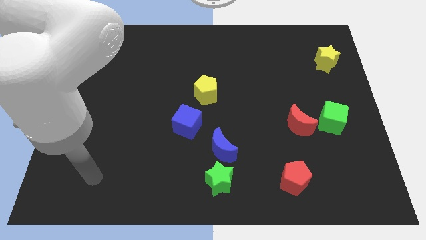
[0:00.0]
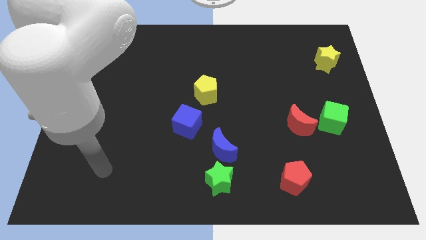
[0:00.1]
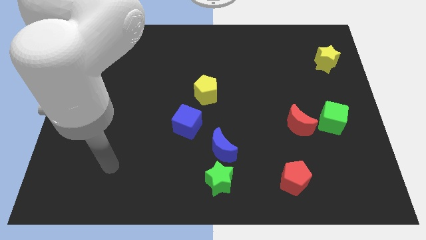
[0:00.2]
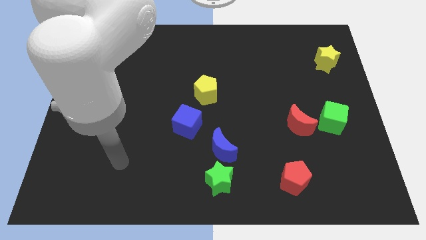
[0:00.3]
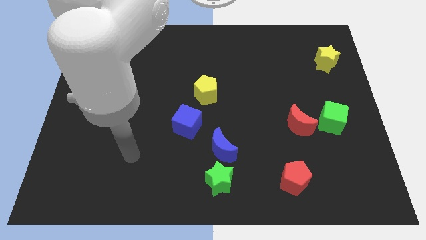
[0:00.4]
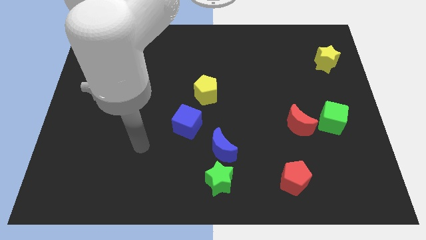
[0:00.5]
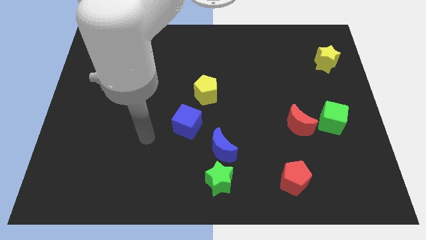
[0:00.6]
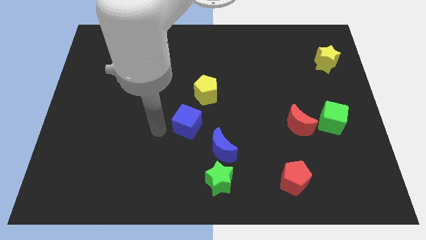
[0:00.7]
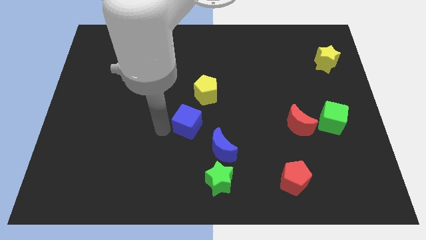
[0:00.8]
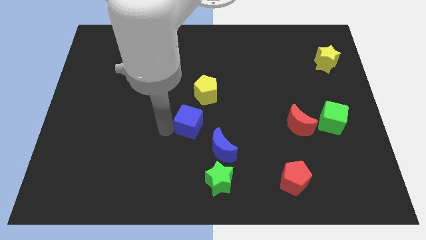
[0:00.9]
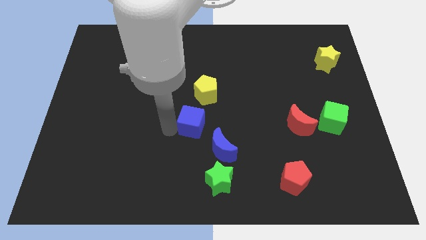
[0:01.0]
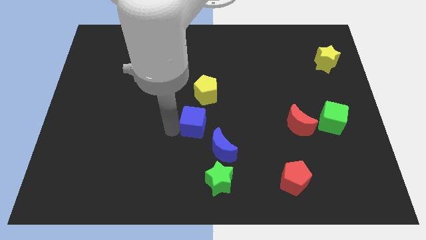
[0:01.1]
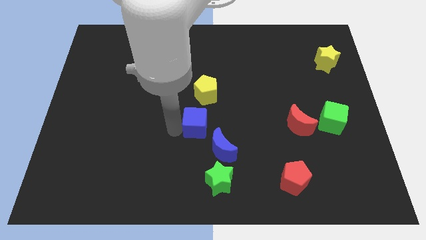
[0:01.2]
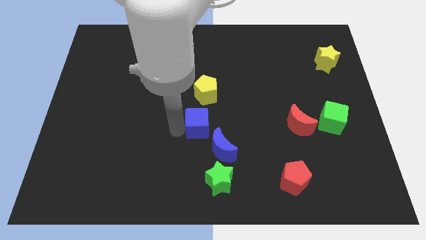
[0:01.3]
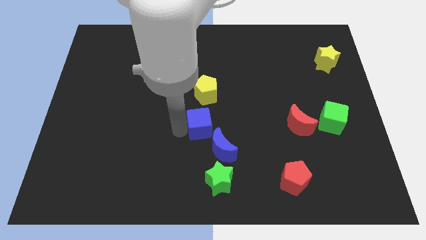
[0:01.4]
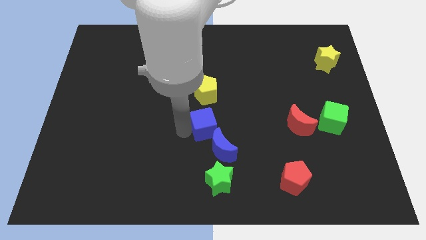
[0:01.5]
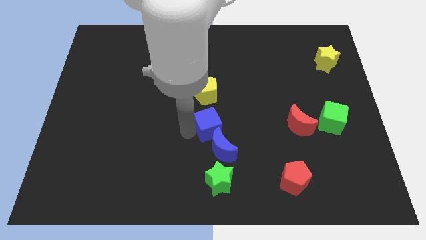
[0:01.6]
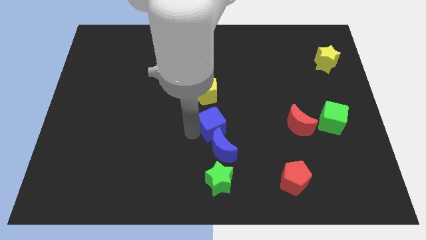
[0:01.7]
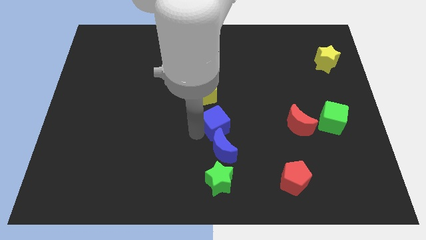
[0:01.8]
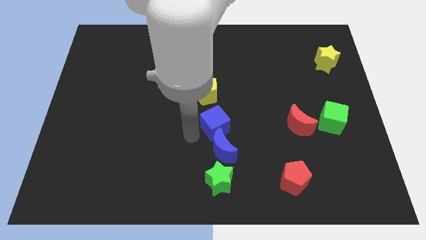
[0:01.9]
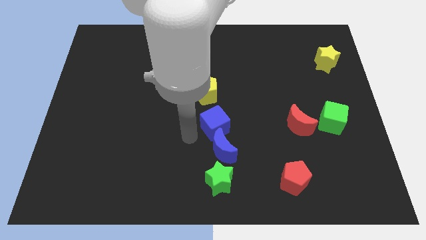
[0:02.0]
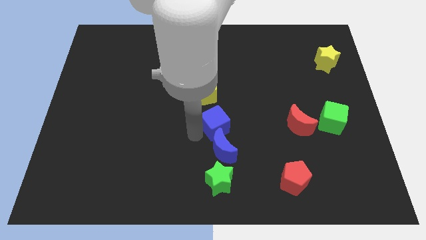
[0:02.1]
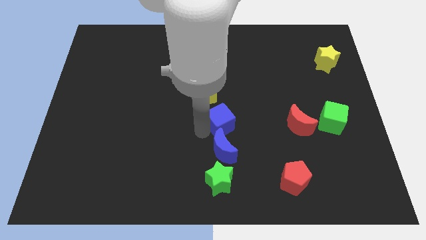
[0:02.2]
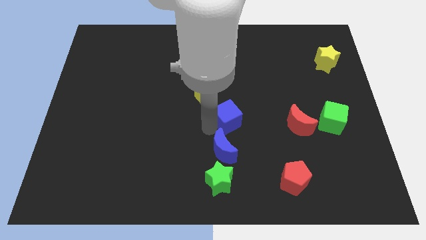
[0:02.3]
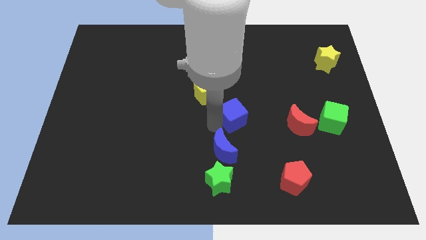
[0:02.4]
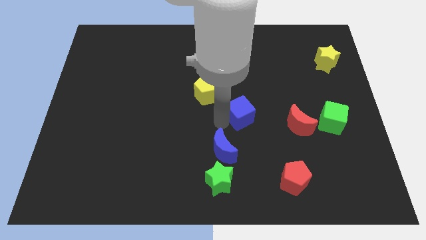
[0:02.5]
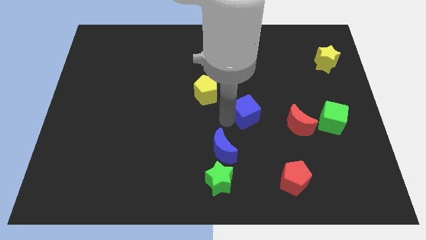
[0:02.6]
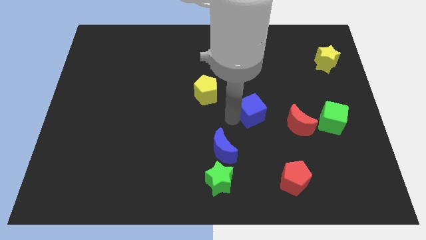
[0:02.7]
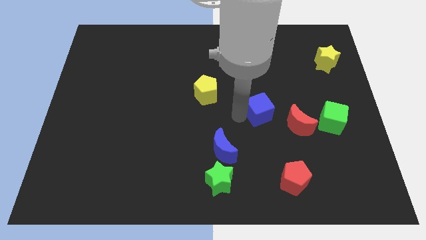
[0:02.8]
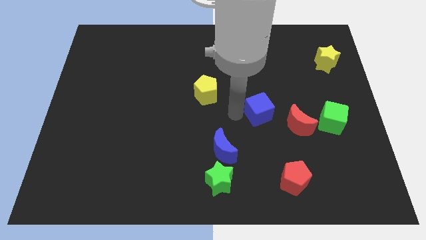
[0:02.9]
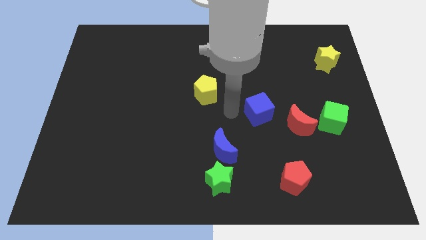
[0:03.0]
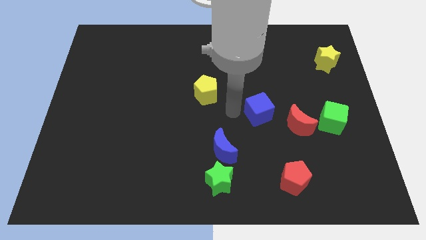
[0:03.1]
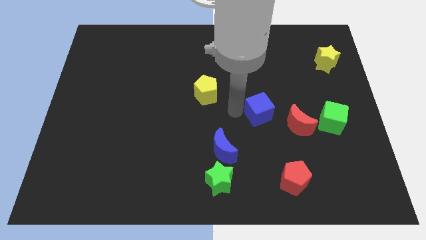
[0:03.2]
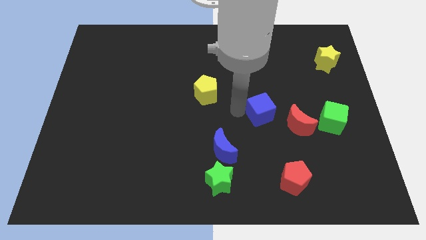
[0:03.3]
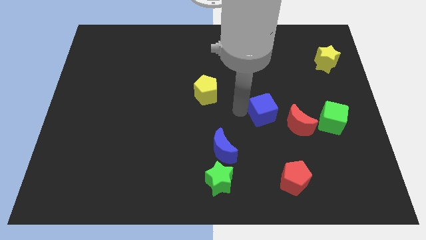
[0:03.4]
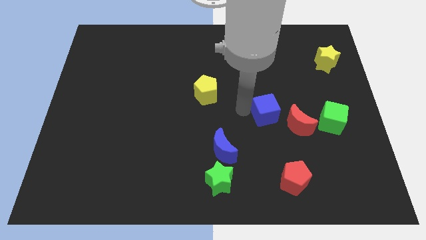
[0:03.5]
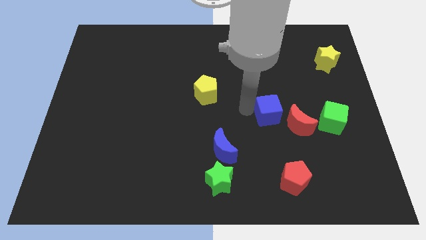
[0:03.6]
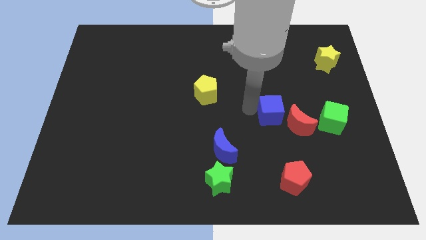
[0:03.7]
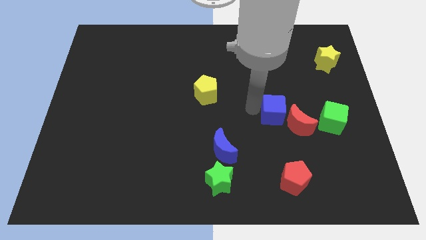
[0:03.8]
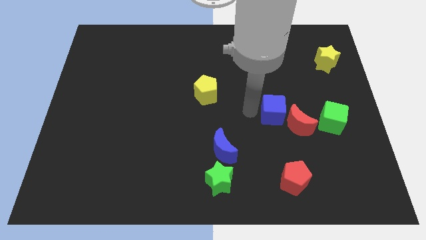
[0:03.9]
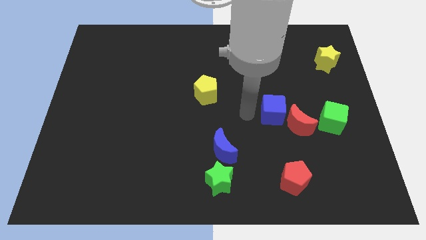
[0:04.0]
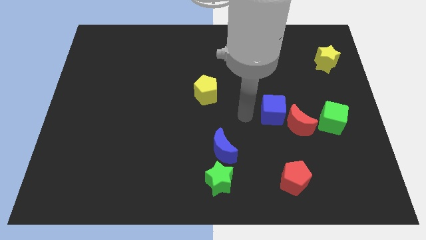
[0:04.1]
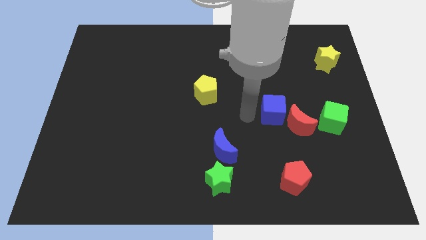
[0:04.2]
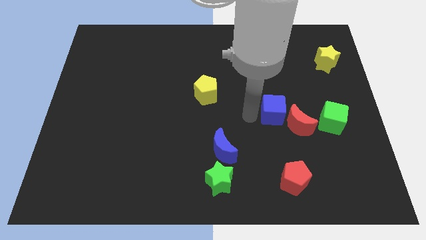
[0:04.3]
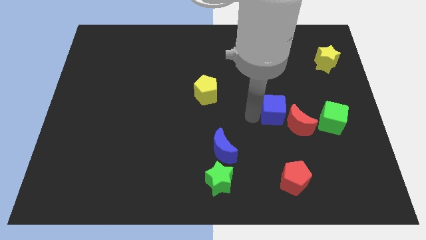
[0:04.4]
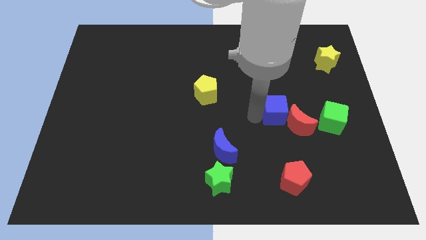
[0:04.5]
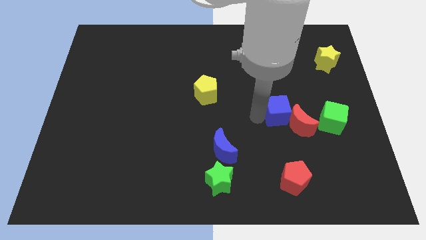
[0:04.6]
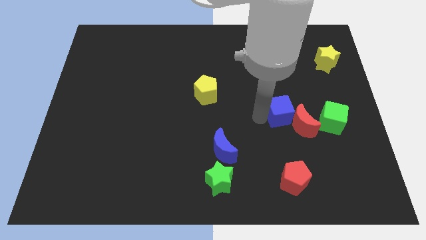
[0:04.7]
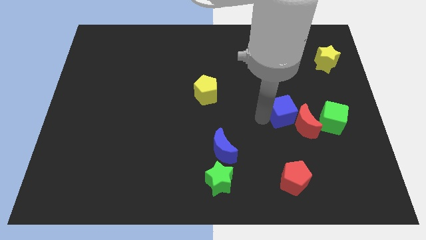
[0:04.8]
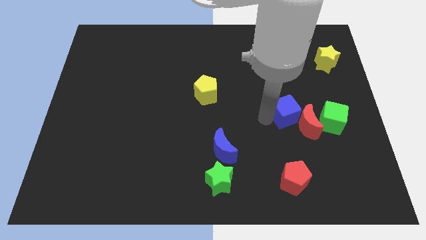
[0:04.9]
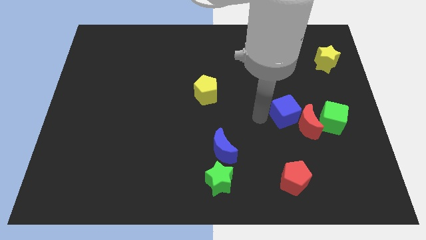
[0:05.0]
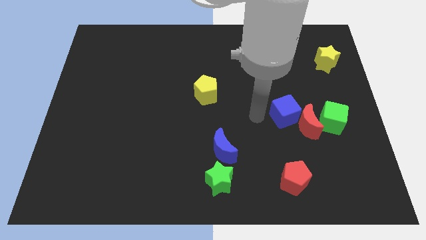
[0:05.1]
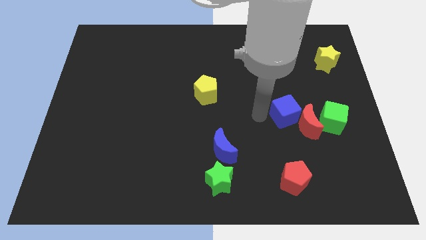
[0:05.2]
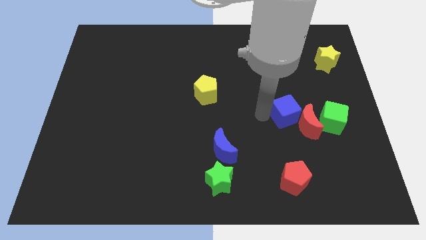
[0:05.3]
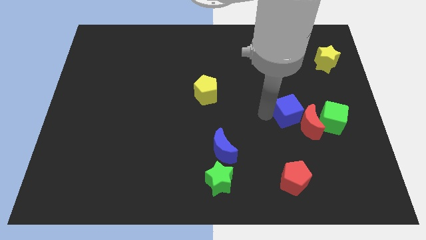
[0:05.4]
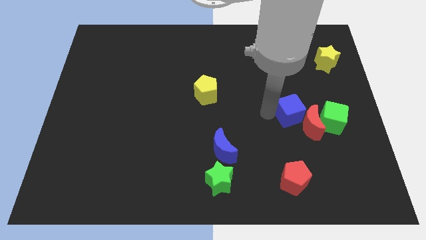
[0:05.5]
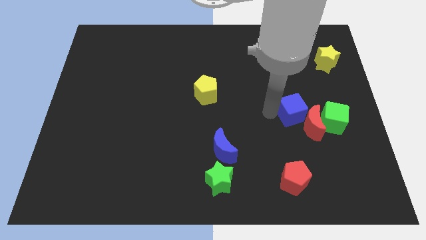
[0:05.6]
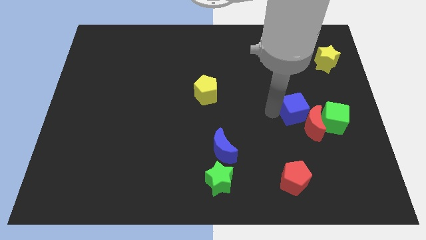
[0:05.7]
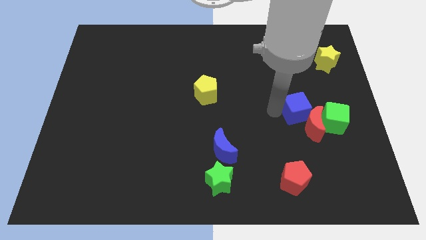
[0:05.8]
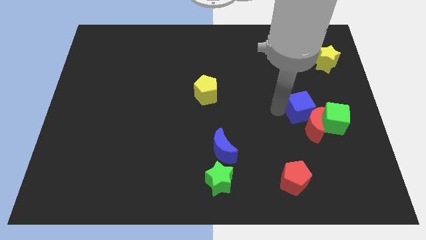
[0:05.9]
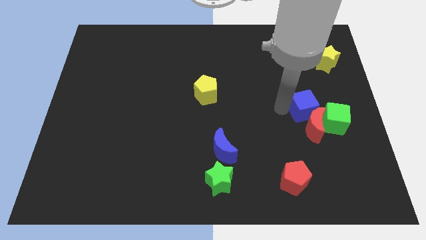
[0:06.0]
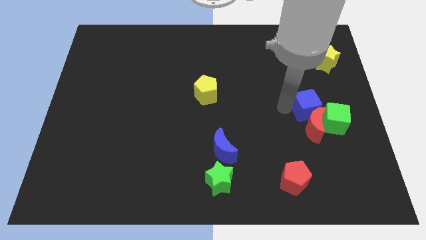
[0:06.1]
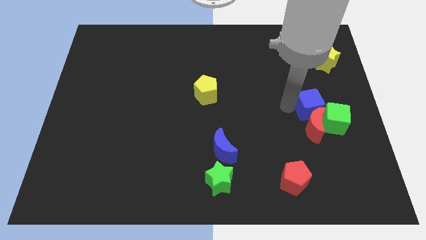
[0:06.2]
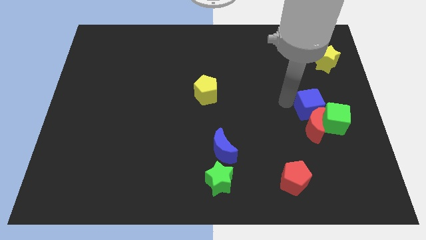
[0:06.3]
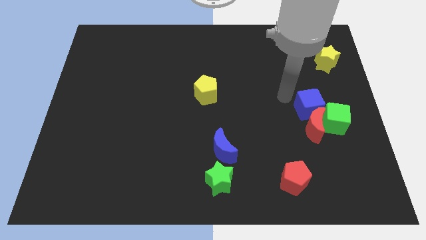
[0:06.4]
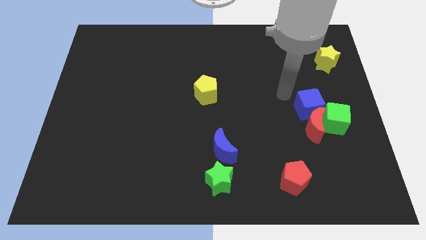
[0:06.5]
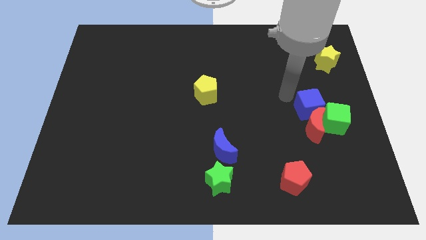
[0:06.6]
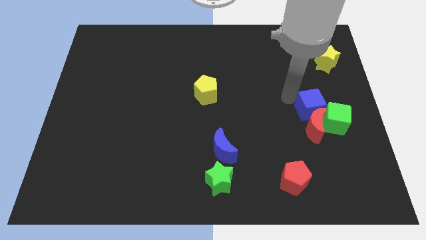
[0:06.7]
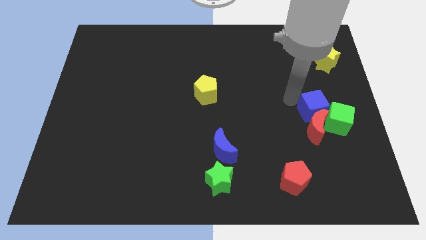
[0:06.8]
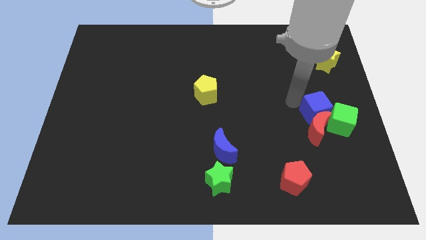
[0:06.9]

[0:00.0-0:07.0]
put the blue cube to the green cube

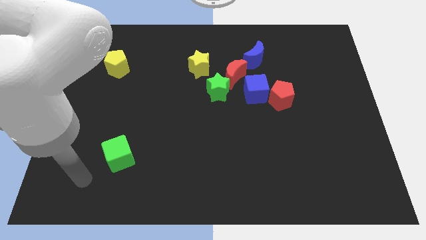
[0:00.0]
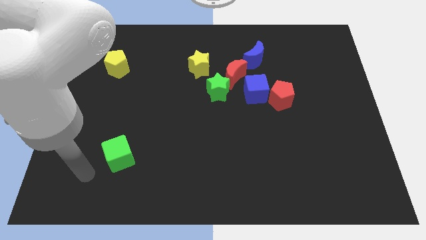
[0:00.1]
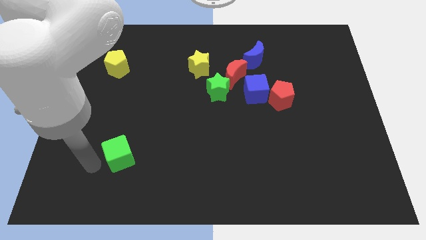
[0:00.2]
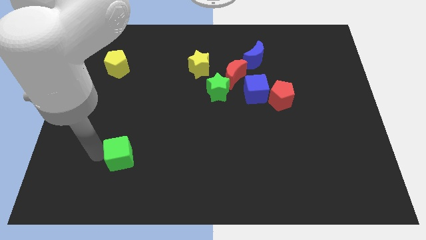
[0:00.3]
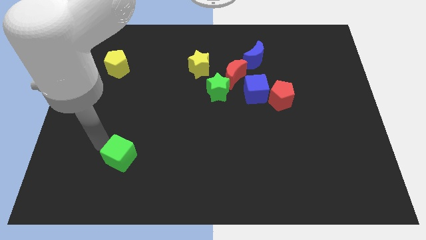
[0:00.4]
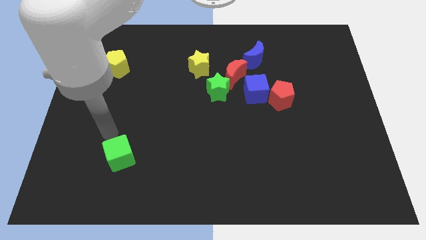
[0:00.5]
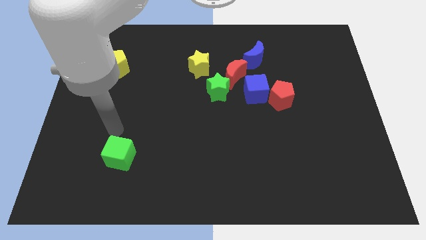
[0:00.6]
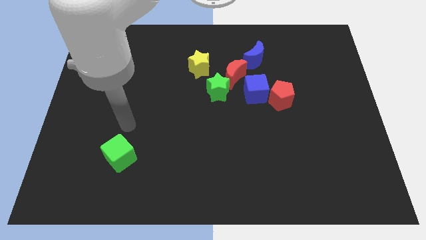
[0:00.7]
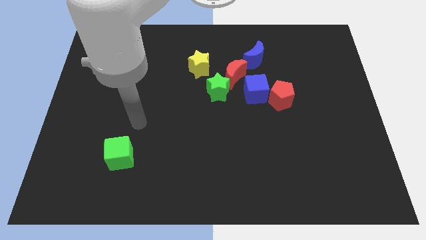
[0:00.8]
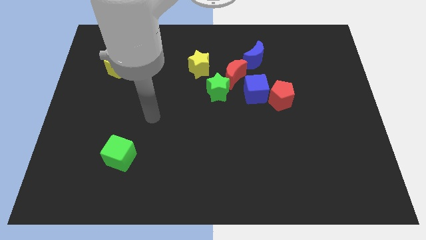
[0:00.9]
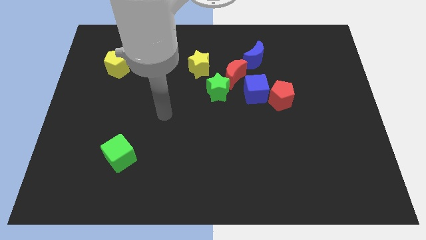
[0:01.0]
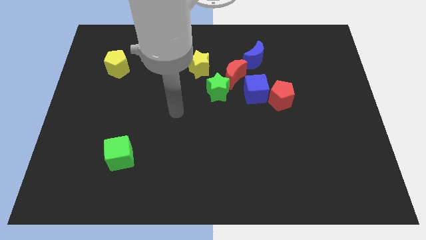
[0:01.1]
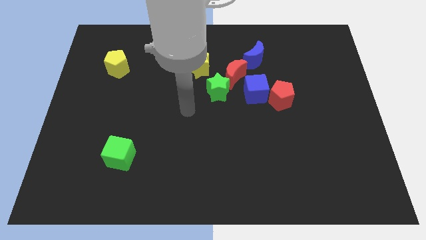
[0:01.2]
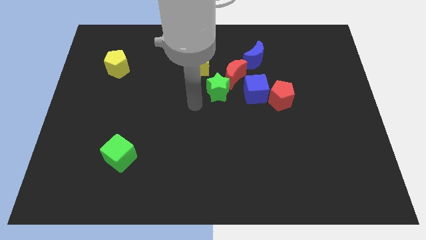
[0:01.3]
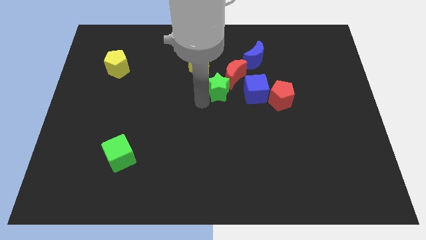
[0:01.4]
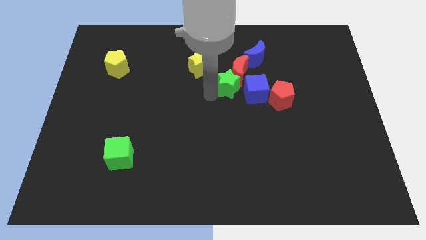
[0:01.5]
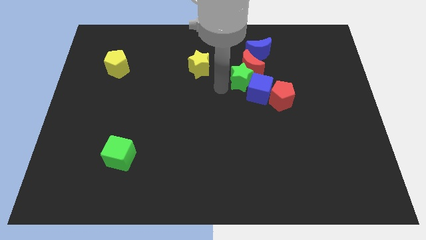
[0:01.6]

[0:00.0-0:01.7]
put the red moon to the blue moon
